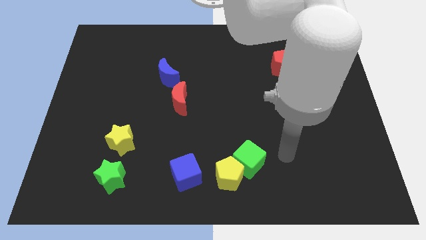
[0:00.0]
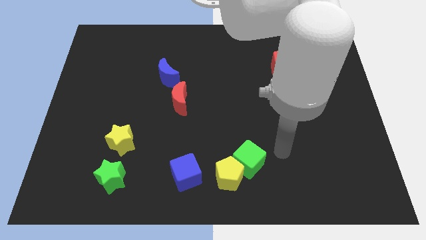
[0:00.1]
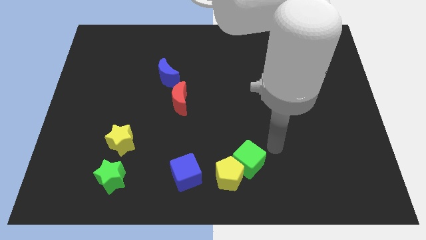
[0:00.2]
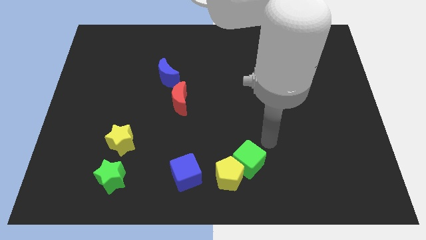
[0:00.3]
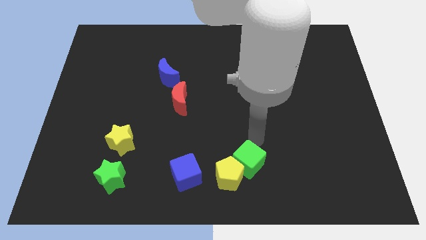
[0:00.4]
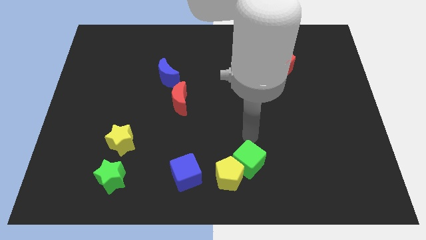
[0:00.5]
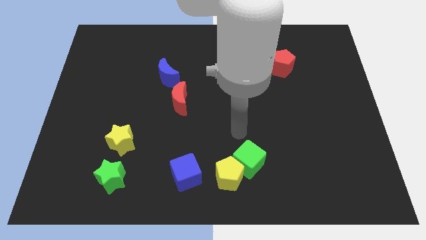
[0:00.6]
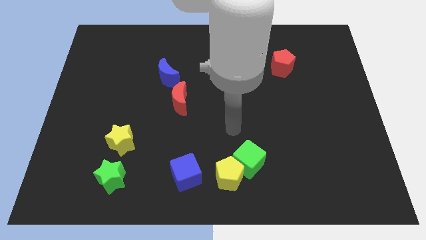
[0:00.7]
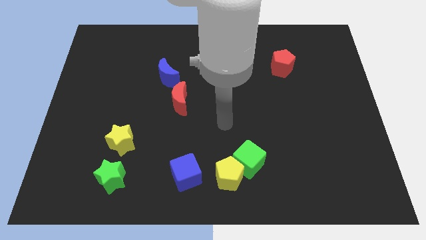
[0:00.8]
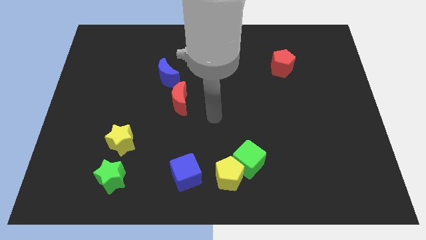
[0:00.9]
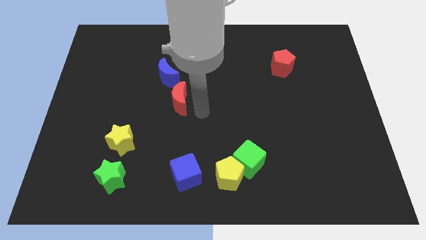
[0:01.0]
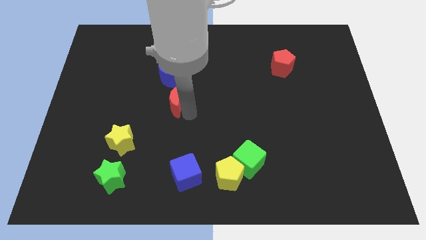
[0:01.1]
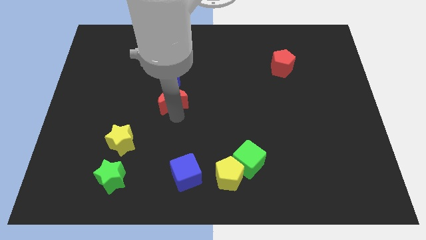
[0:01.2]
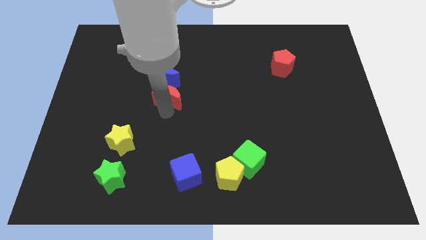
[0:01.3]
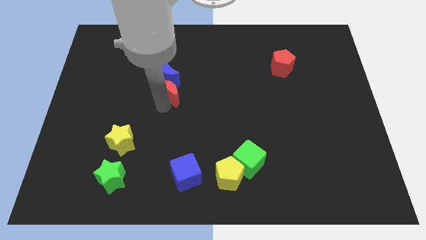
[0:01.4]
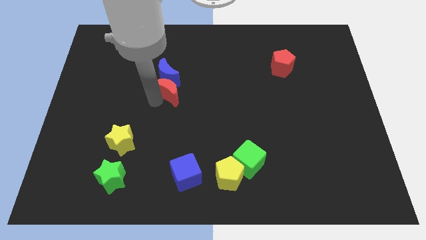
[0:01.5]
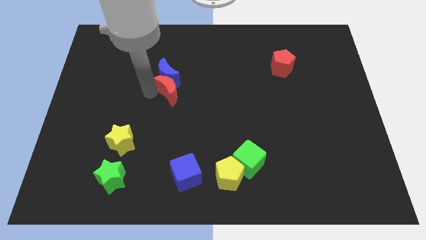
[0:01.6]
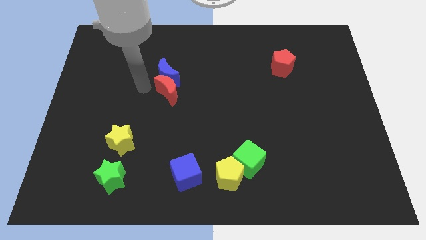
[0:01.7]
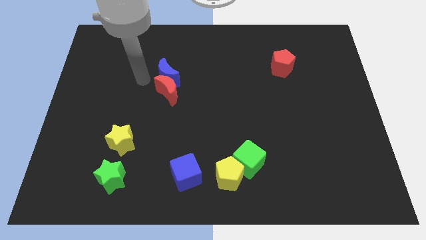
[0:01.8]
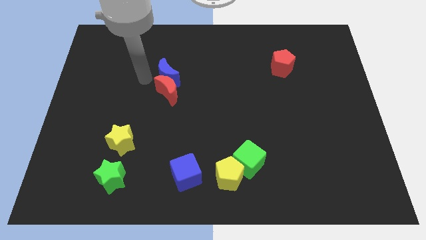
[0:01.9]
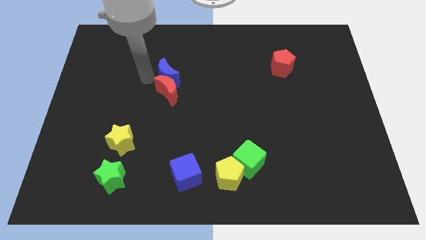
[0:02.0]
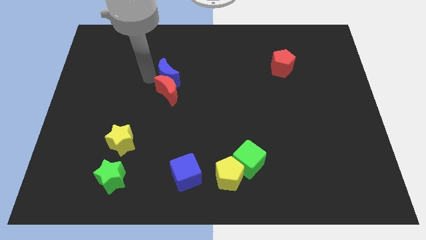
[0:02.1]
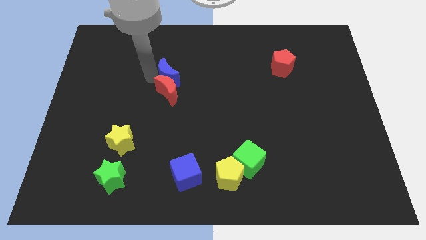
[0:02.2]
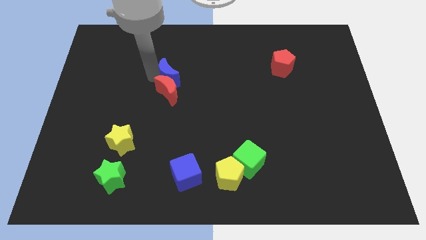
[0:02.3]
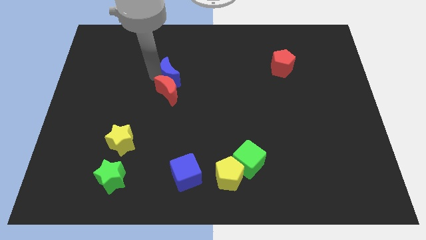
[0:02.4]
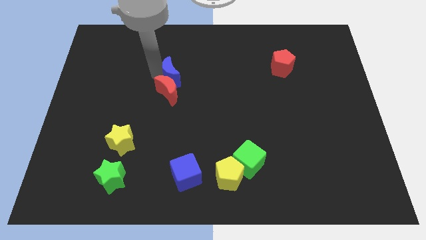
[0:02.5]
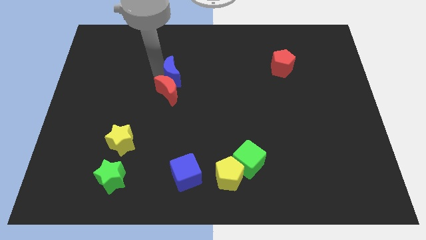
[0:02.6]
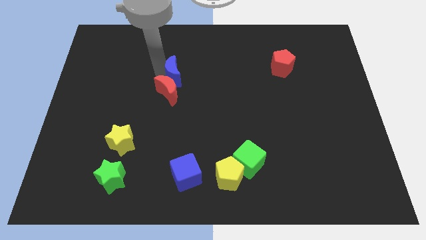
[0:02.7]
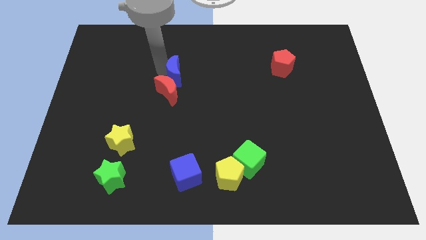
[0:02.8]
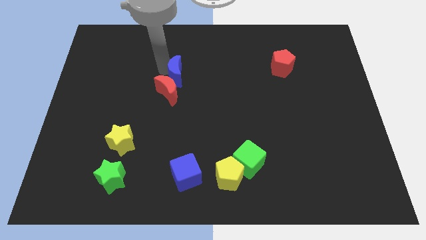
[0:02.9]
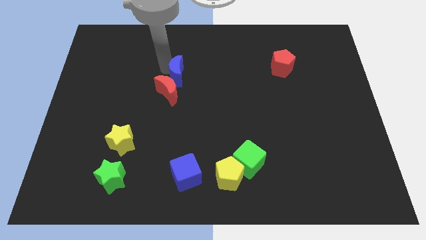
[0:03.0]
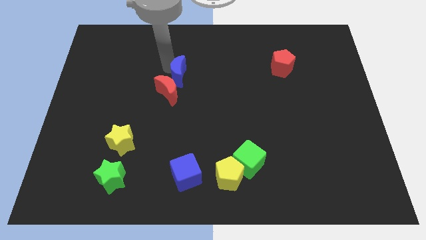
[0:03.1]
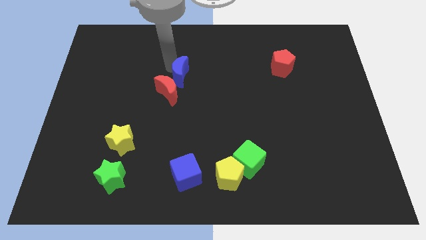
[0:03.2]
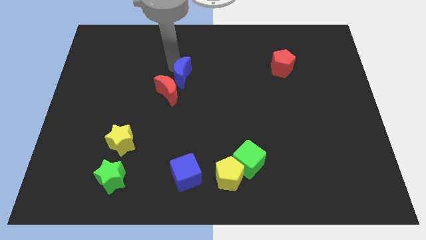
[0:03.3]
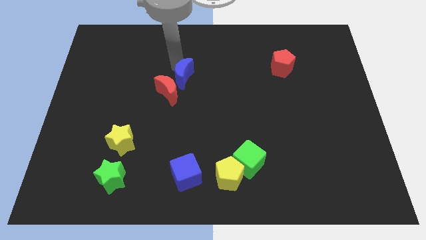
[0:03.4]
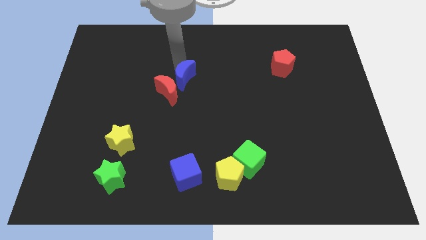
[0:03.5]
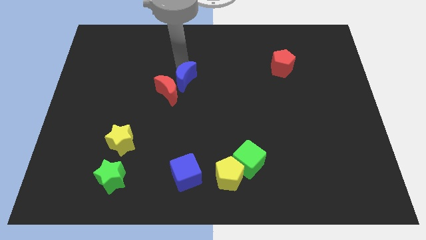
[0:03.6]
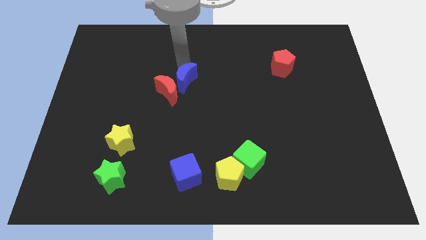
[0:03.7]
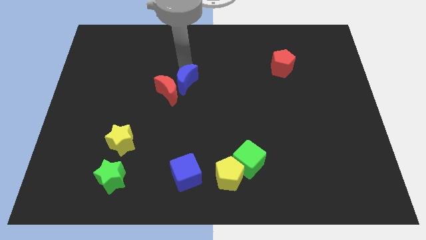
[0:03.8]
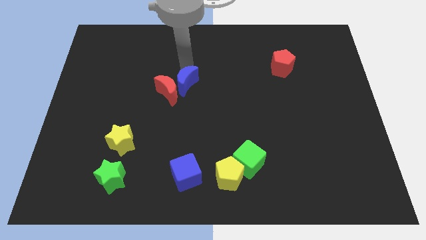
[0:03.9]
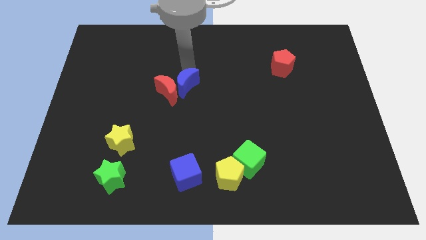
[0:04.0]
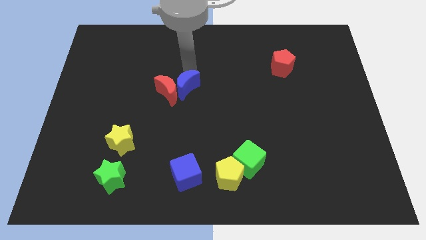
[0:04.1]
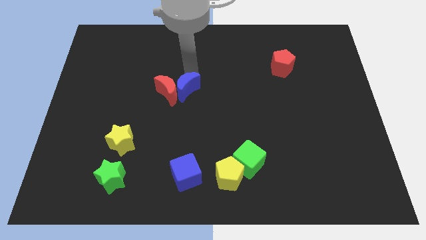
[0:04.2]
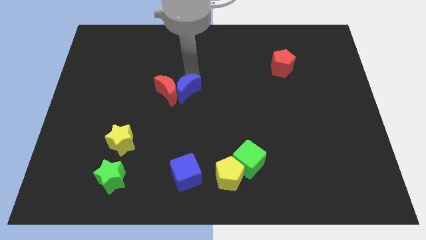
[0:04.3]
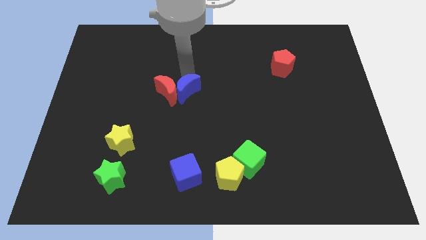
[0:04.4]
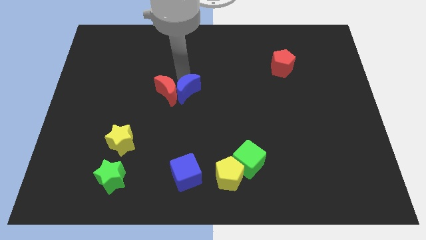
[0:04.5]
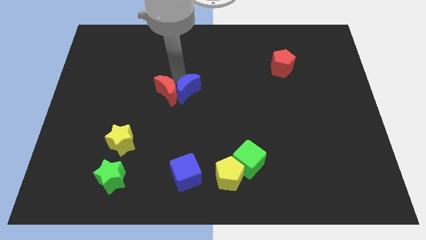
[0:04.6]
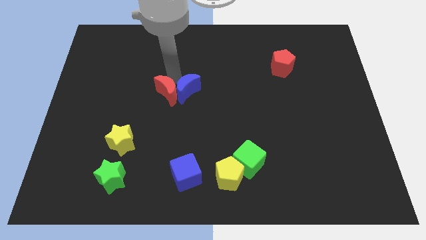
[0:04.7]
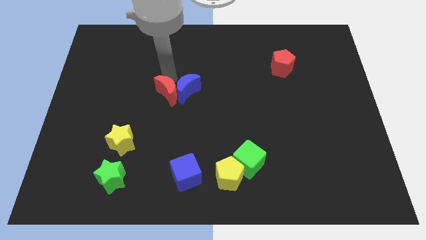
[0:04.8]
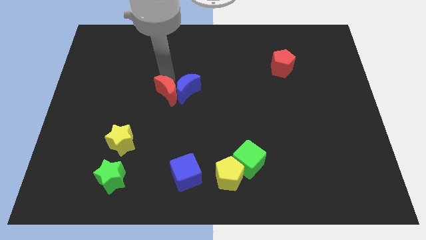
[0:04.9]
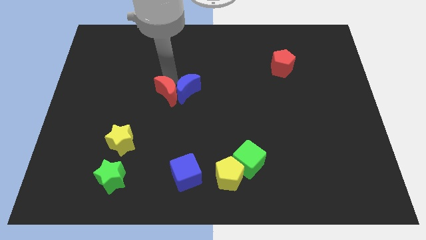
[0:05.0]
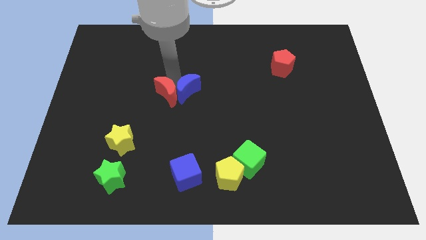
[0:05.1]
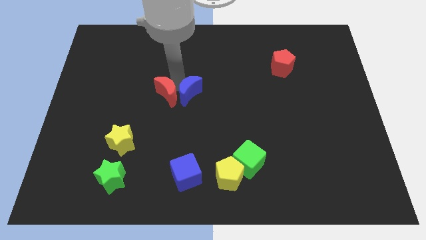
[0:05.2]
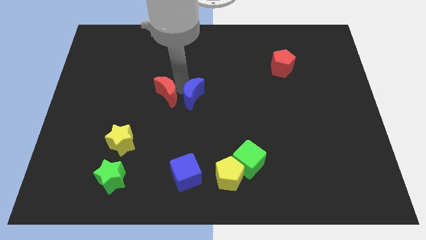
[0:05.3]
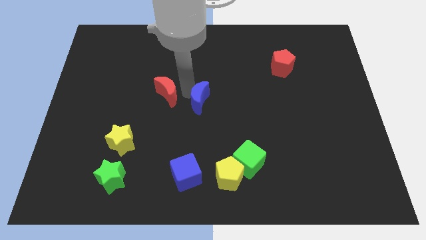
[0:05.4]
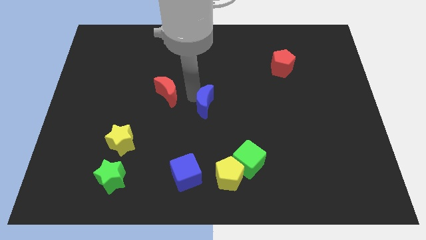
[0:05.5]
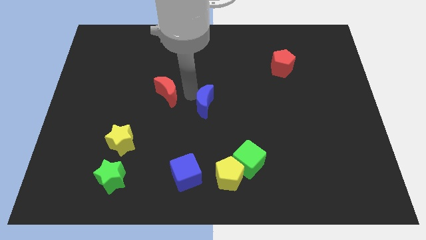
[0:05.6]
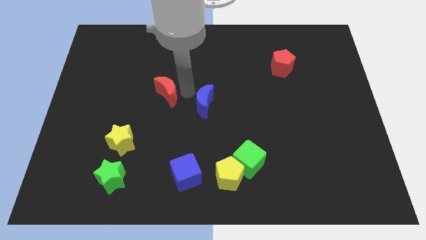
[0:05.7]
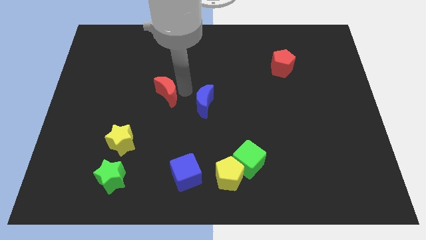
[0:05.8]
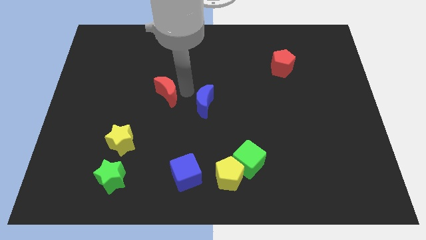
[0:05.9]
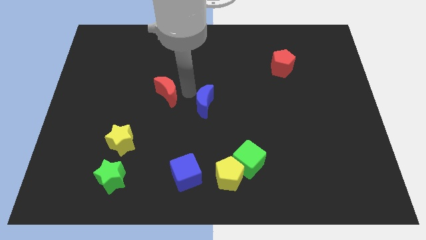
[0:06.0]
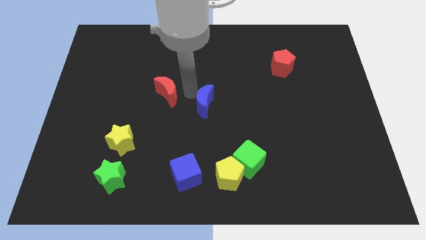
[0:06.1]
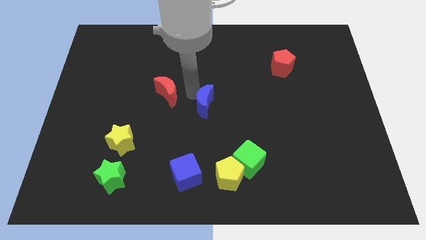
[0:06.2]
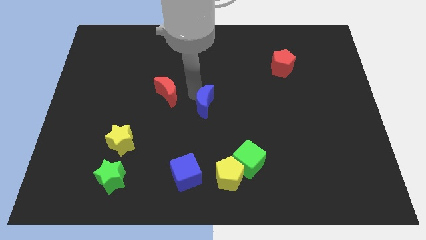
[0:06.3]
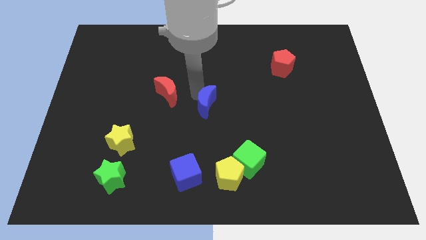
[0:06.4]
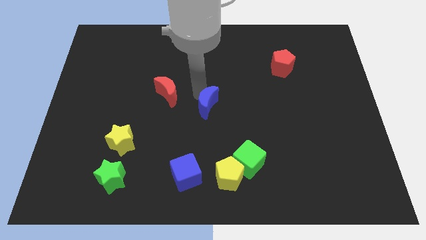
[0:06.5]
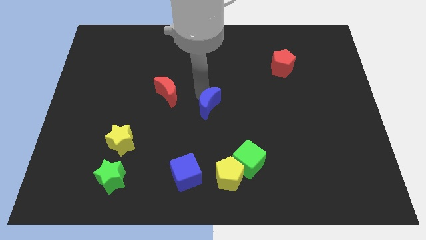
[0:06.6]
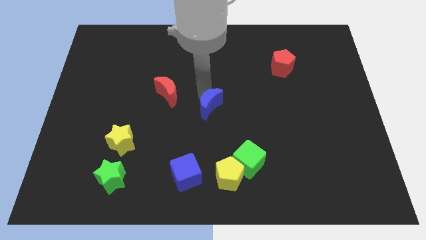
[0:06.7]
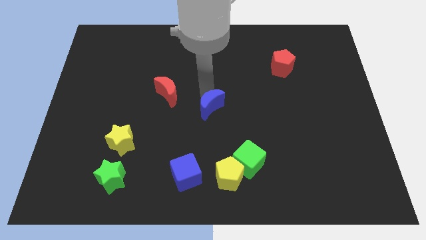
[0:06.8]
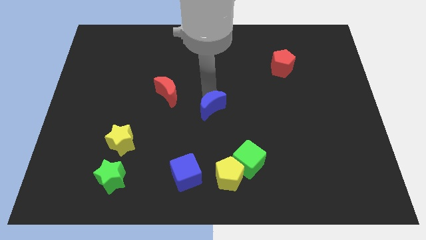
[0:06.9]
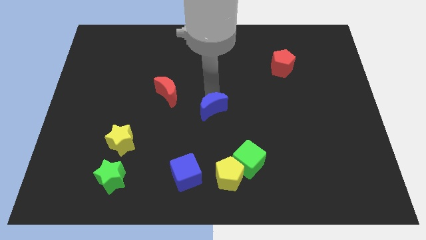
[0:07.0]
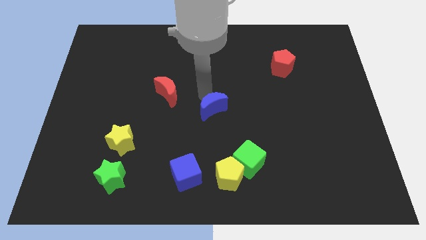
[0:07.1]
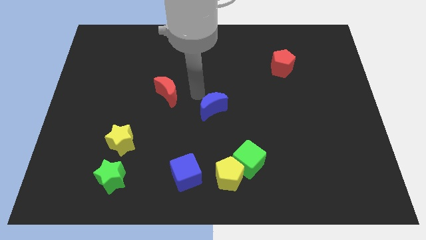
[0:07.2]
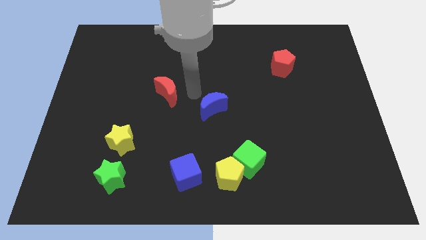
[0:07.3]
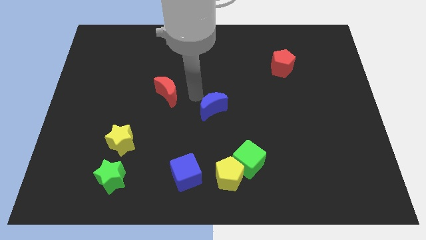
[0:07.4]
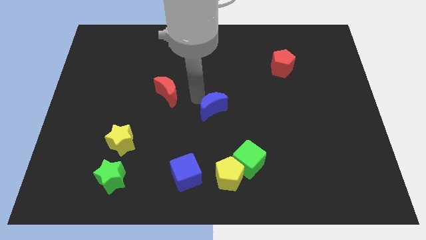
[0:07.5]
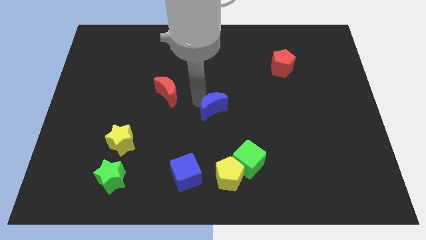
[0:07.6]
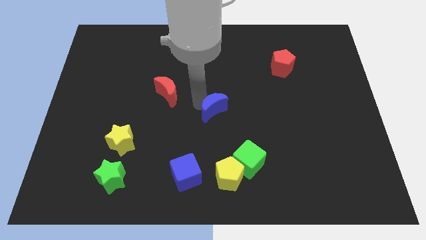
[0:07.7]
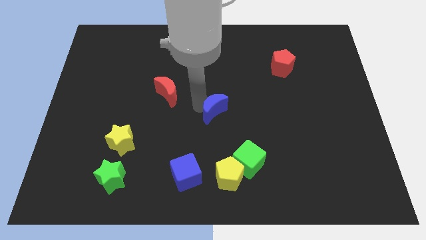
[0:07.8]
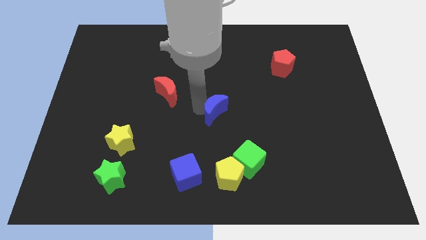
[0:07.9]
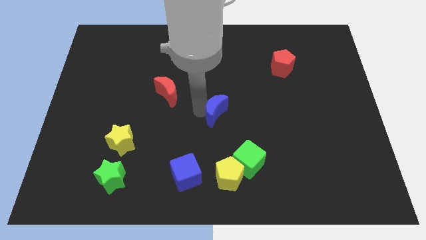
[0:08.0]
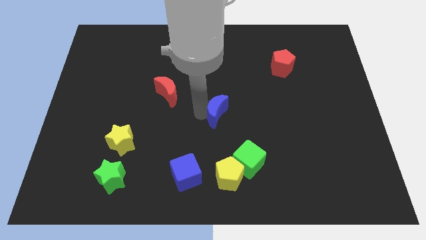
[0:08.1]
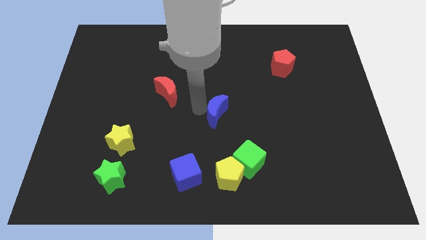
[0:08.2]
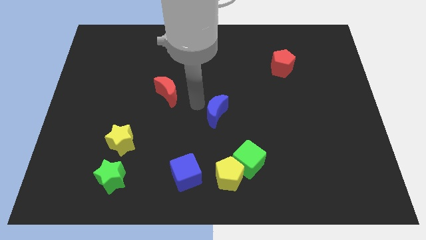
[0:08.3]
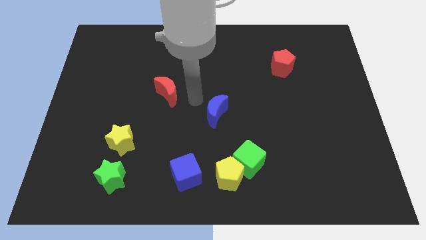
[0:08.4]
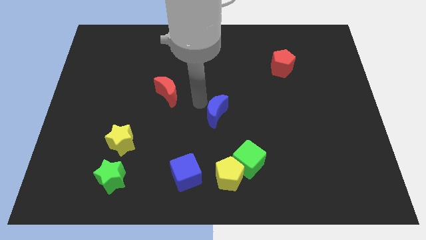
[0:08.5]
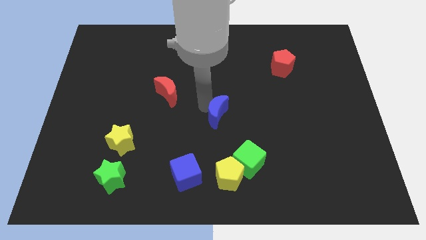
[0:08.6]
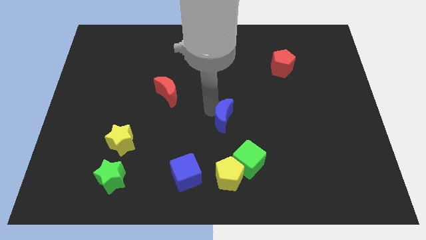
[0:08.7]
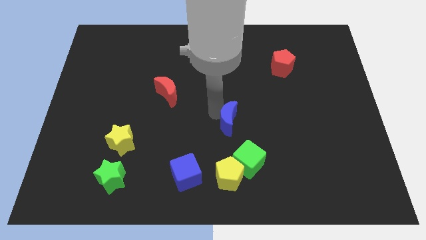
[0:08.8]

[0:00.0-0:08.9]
push the blue moon down and right
